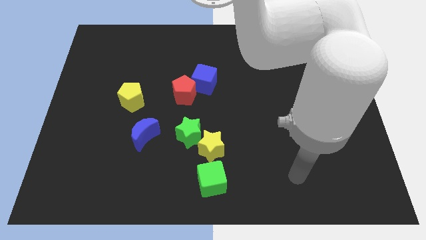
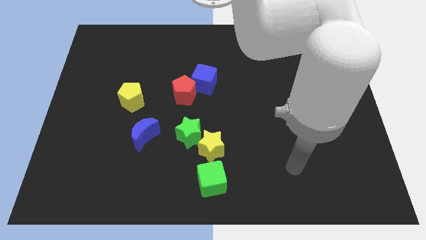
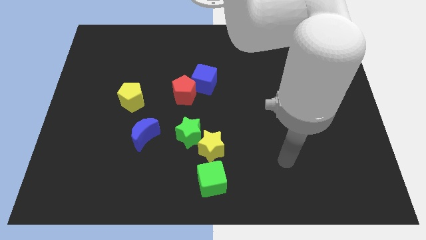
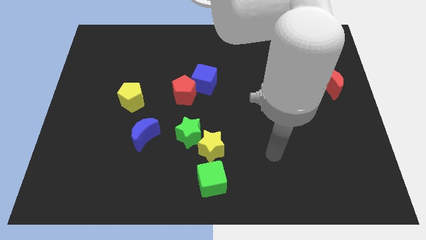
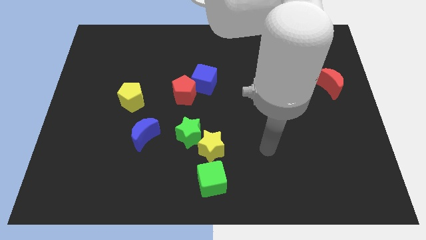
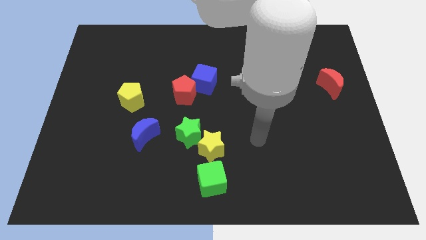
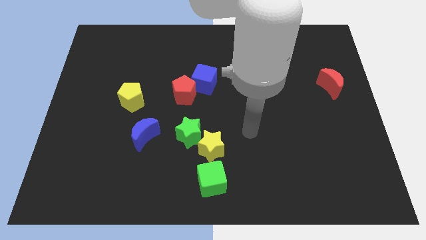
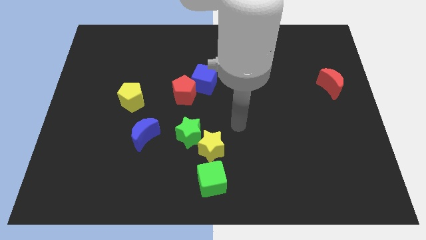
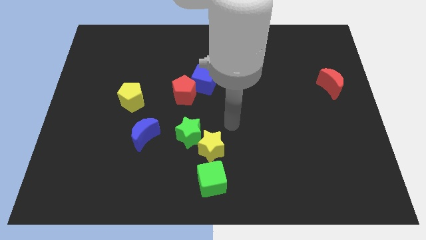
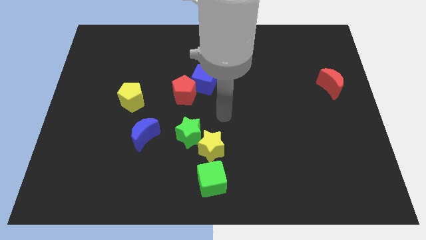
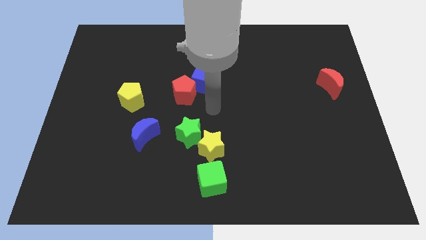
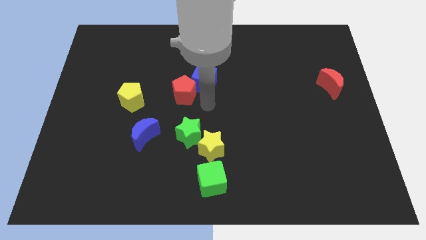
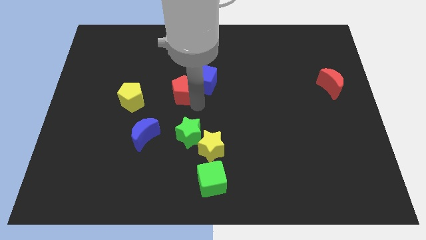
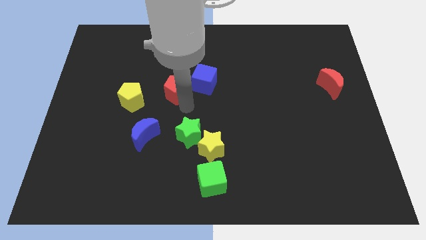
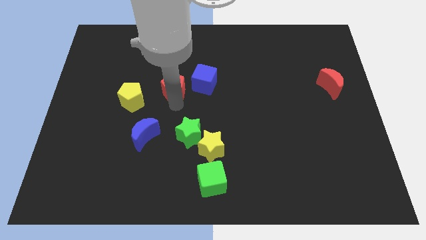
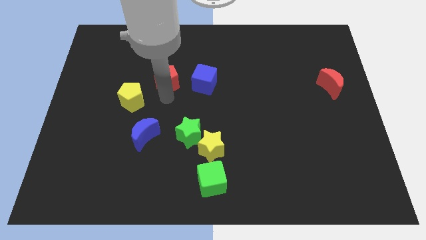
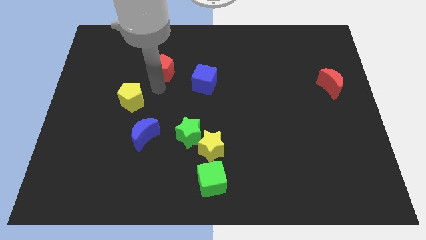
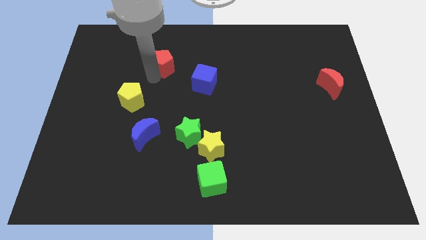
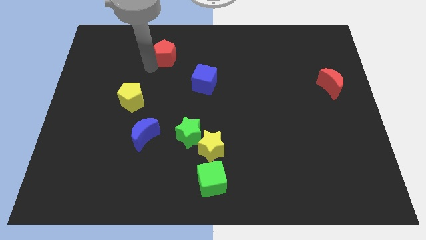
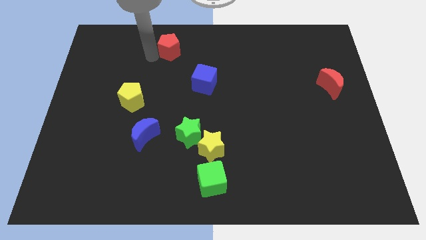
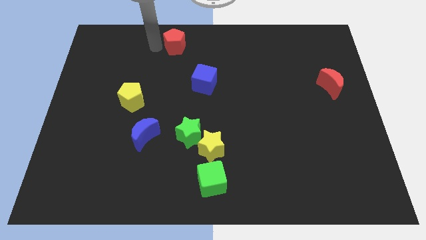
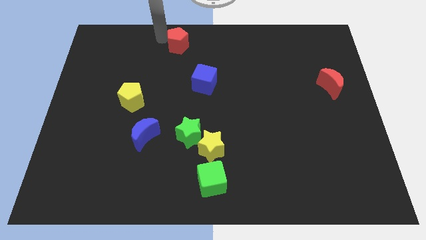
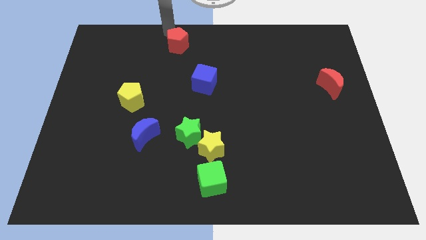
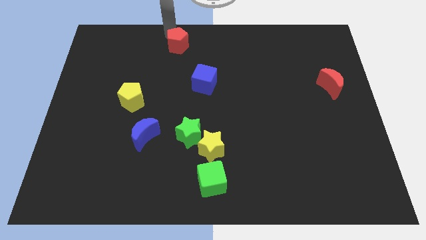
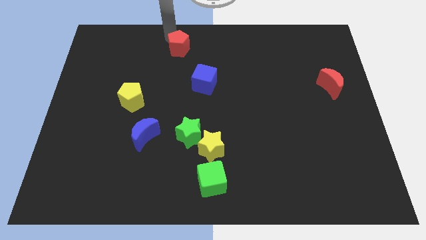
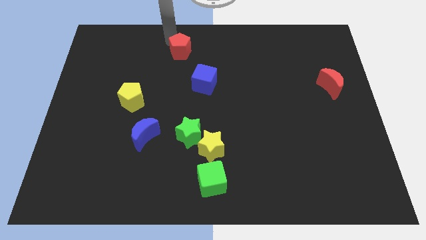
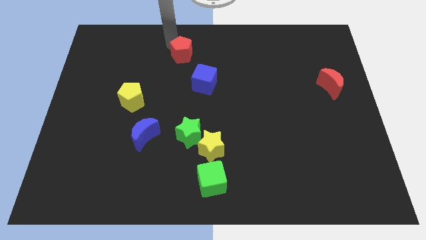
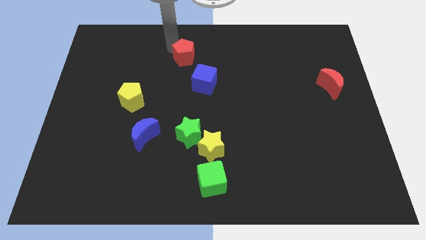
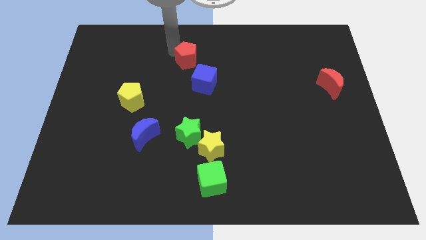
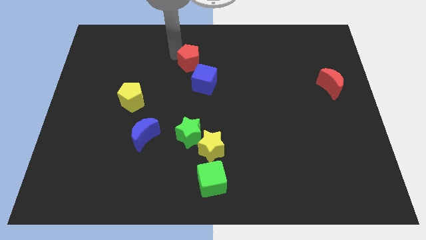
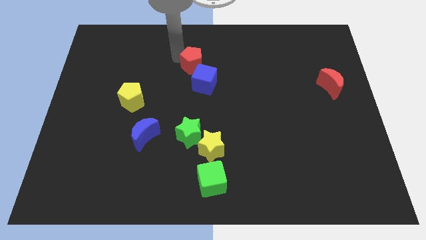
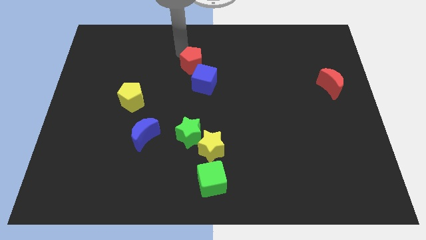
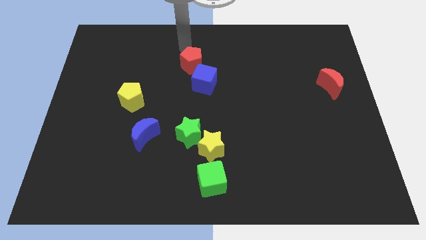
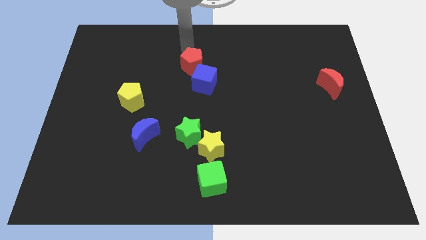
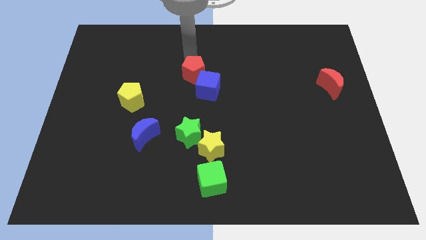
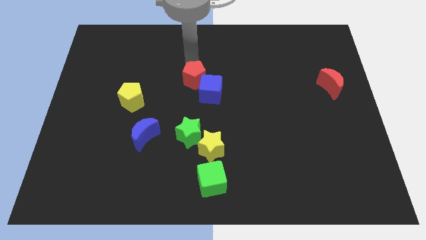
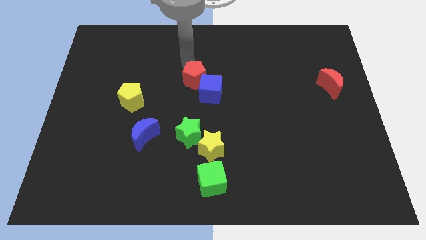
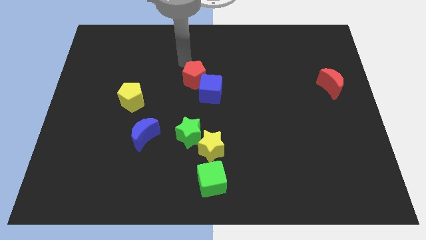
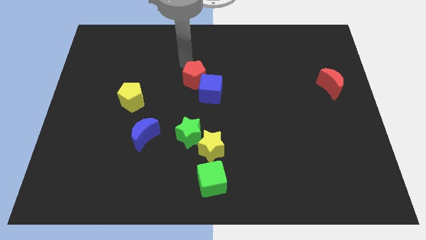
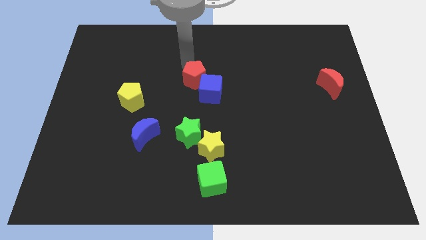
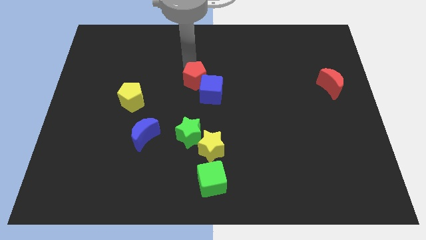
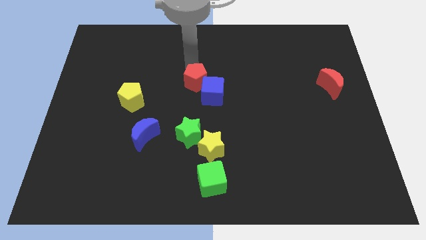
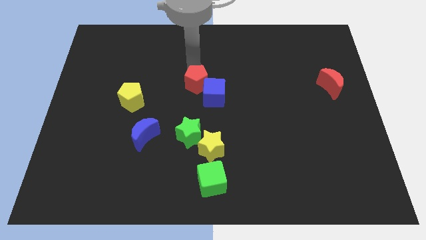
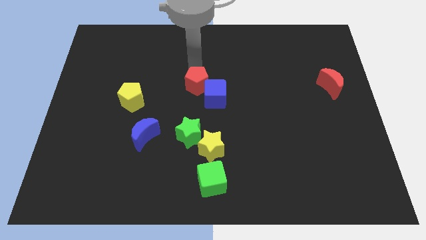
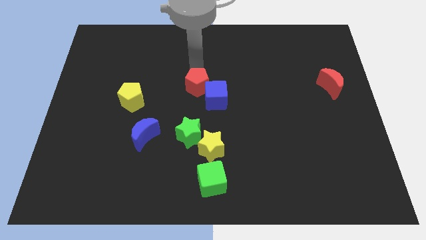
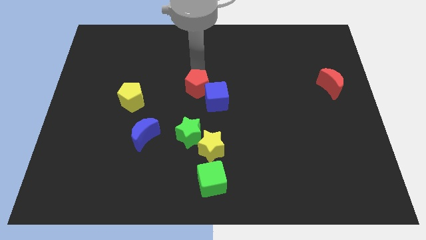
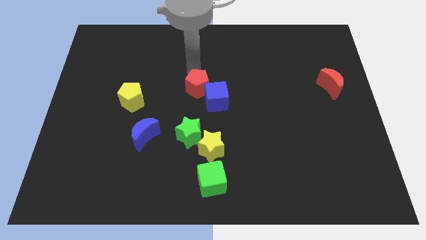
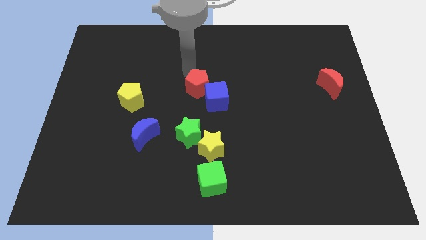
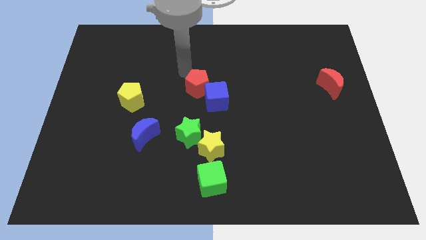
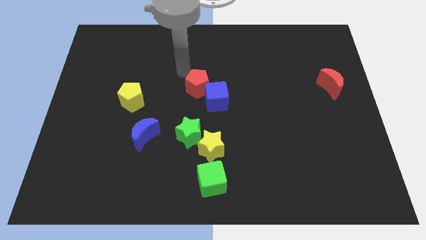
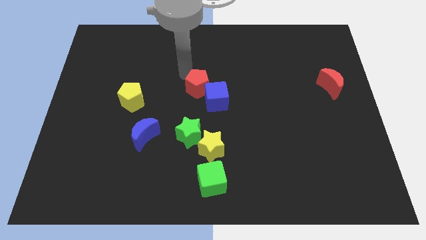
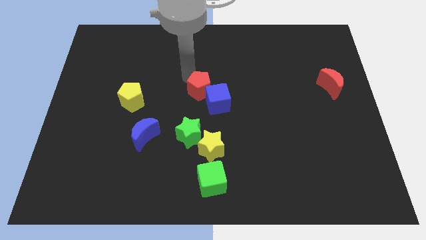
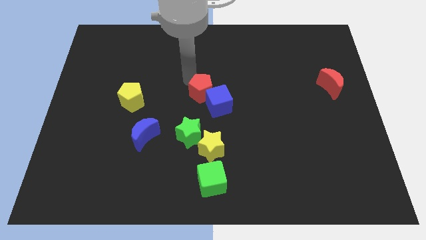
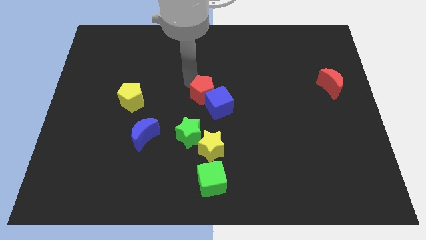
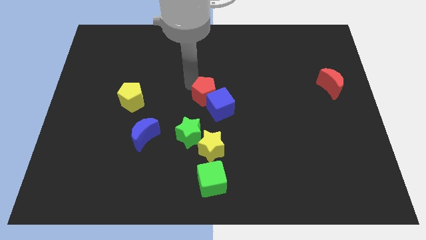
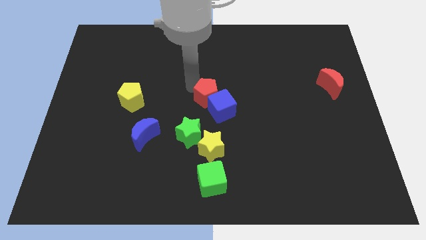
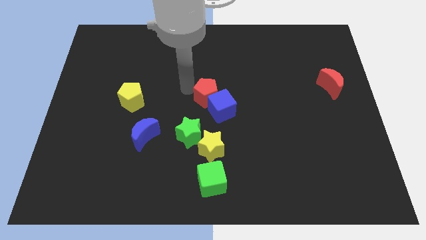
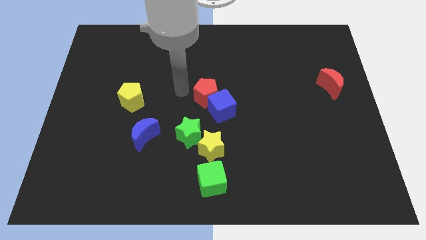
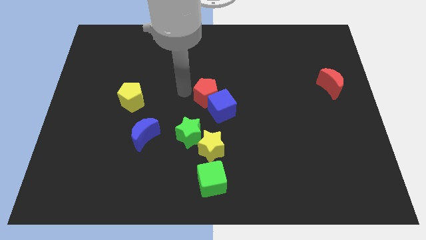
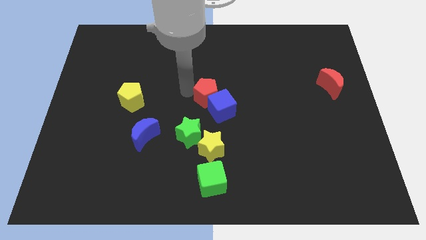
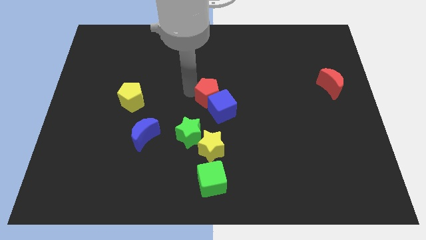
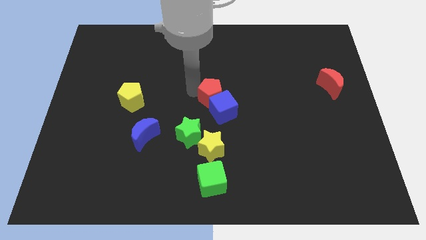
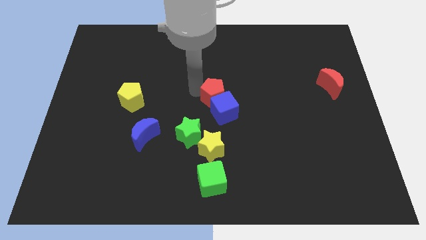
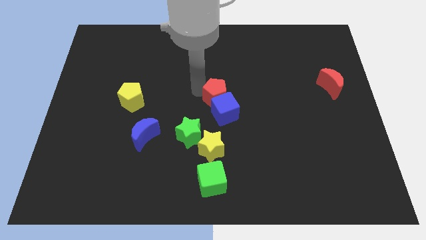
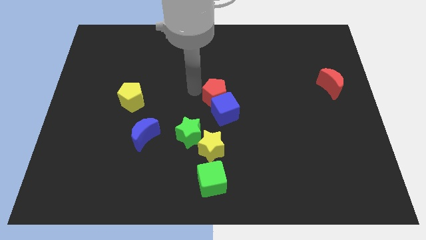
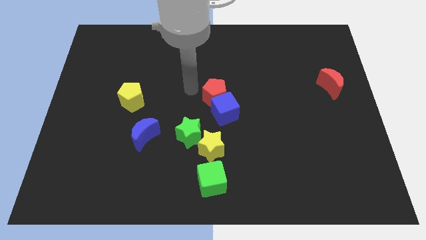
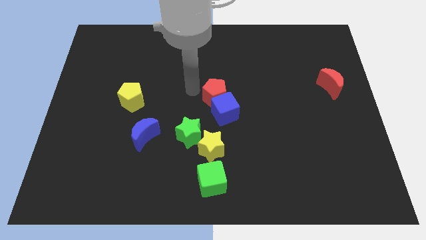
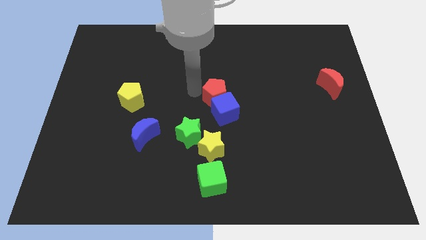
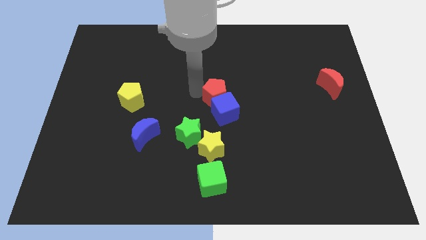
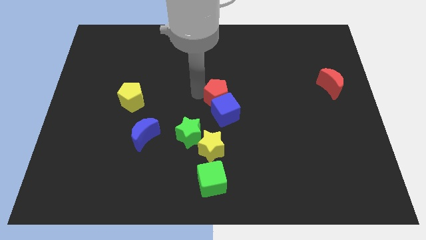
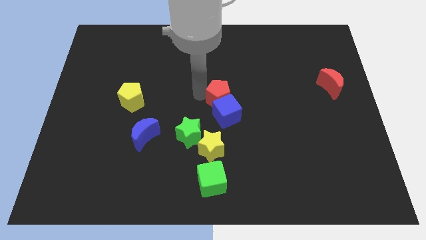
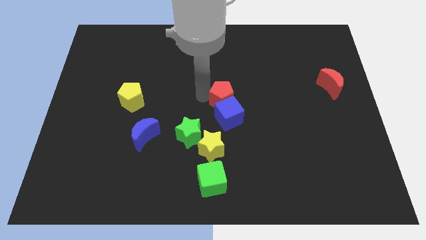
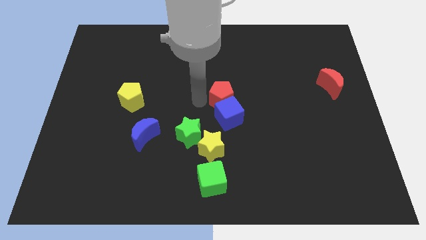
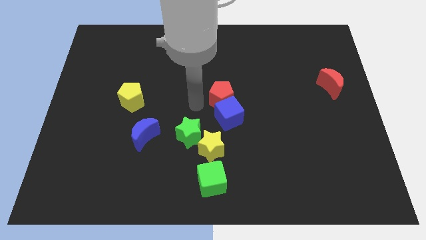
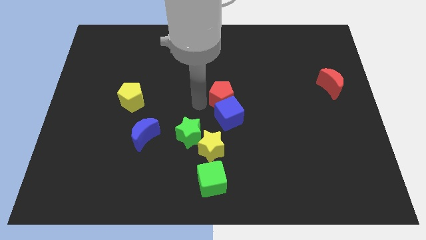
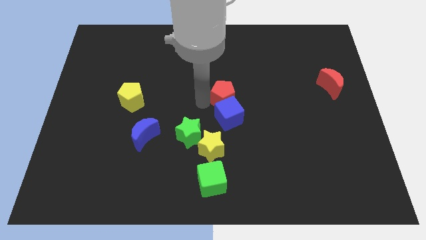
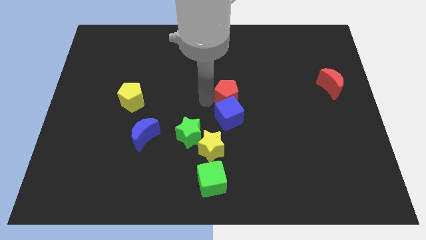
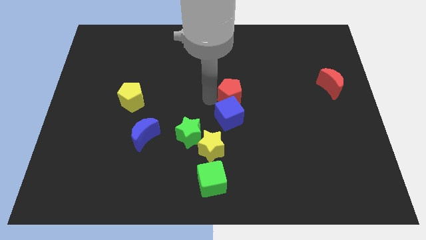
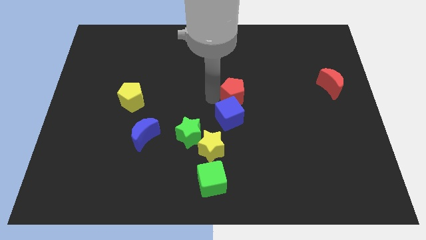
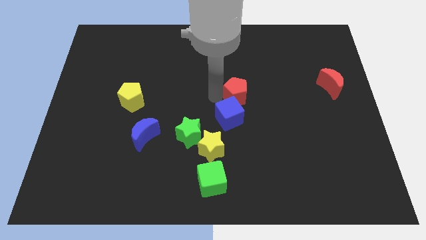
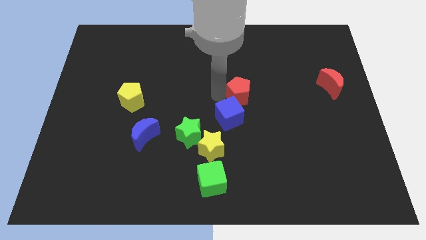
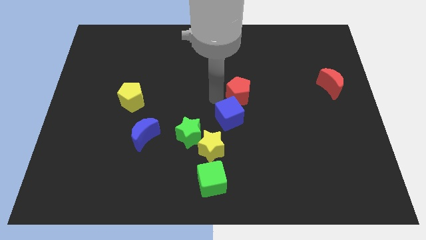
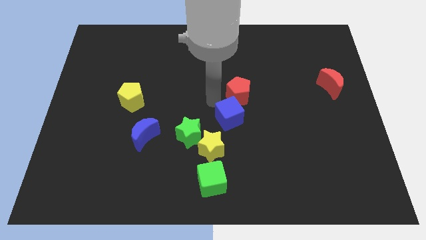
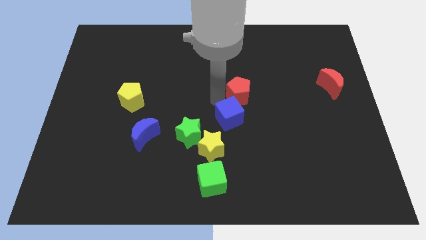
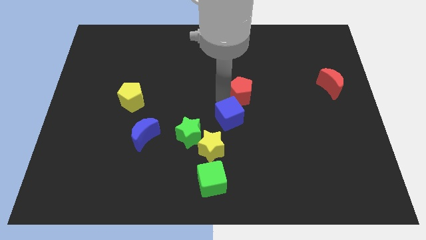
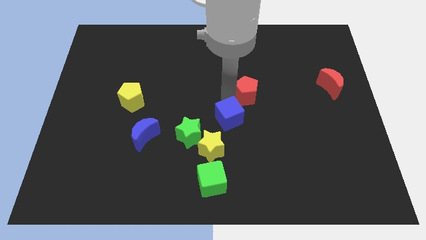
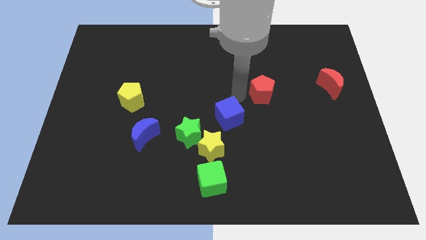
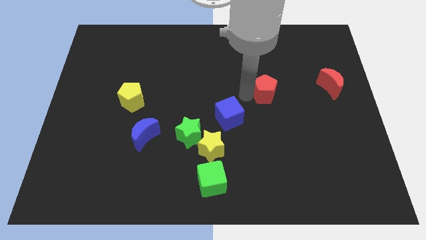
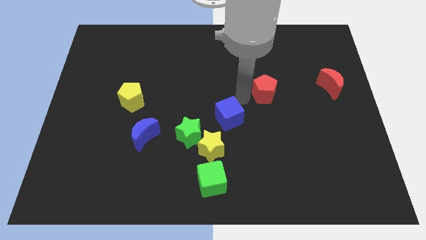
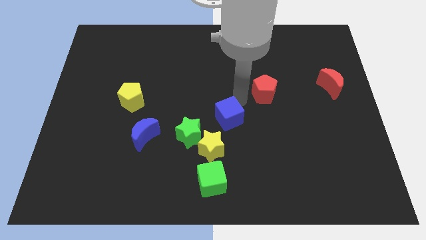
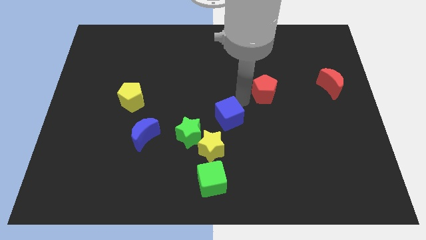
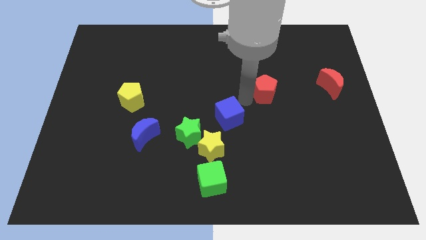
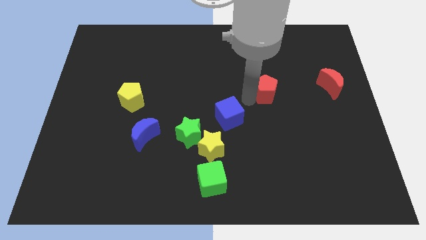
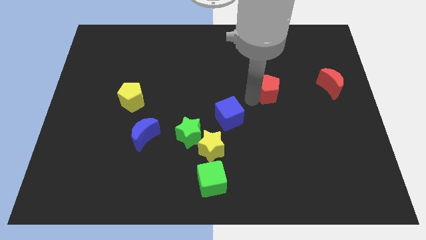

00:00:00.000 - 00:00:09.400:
slide the red pentagon to the left side of the red moon
